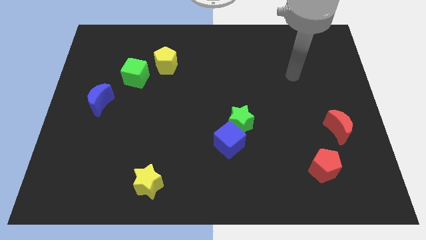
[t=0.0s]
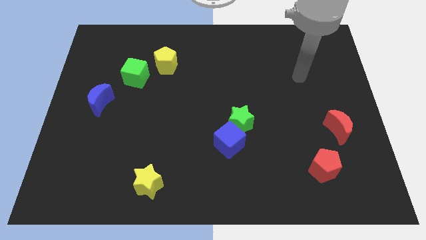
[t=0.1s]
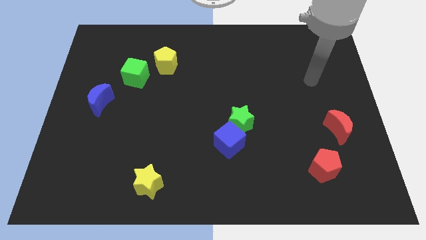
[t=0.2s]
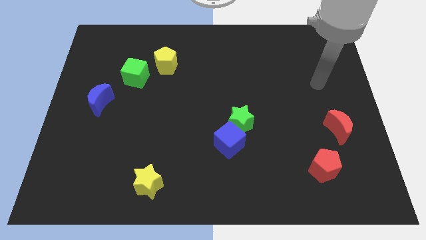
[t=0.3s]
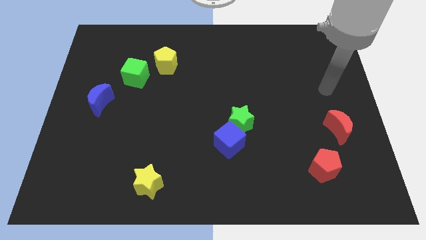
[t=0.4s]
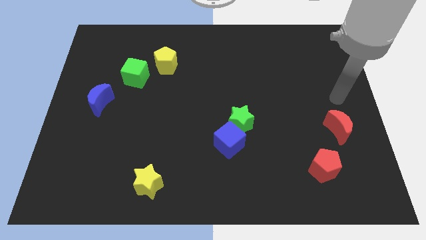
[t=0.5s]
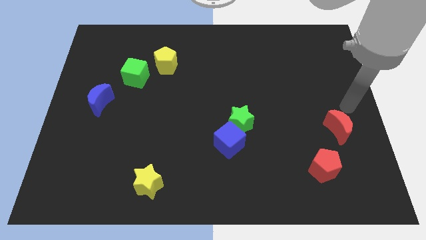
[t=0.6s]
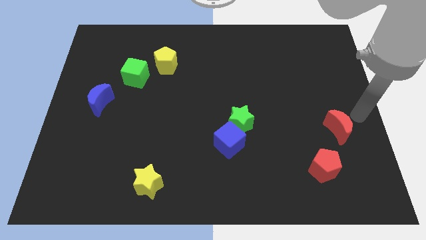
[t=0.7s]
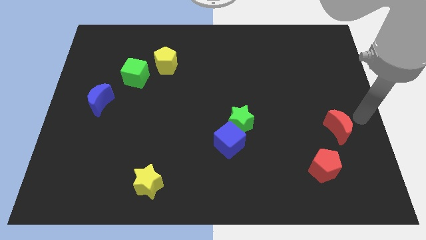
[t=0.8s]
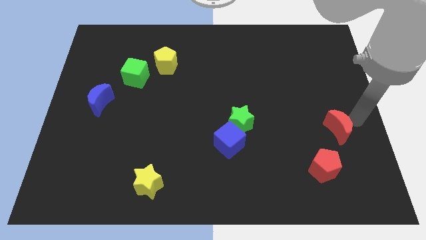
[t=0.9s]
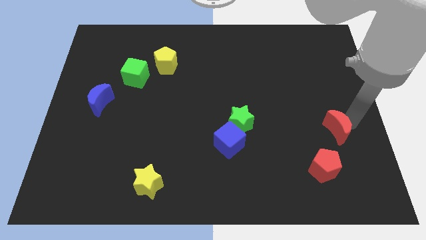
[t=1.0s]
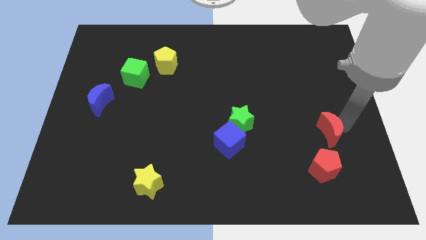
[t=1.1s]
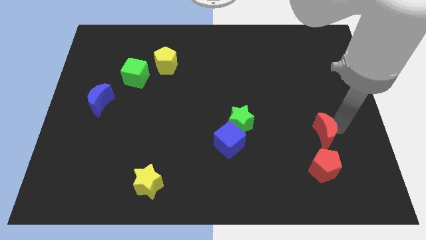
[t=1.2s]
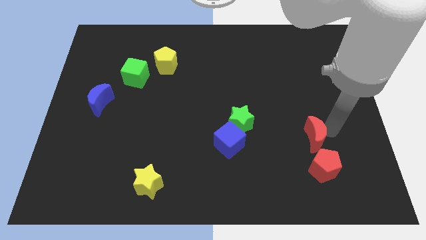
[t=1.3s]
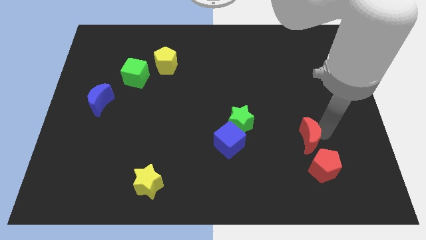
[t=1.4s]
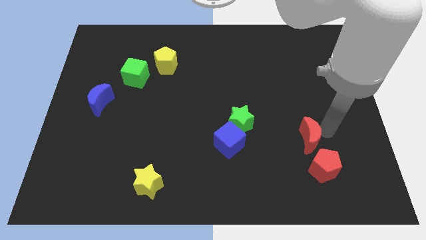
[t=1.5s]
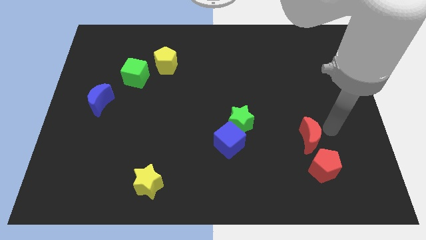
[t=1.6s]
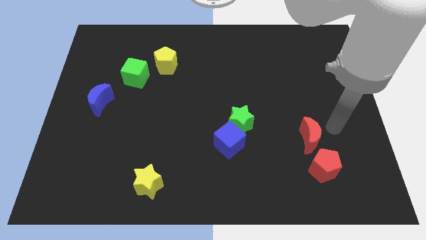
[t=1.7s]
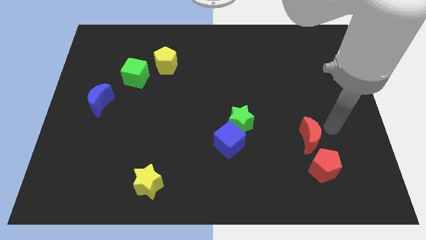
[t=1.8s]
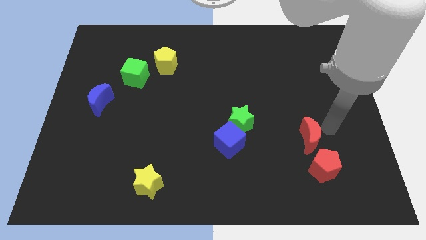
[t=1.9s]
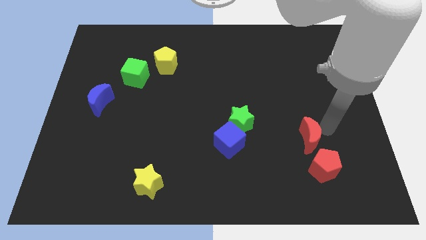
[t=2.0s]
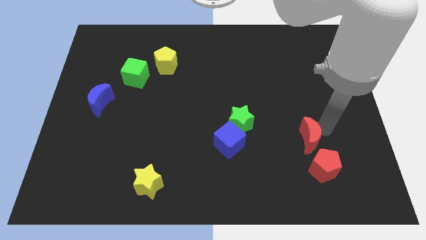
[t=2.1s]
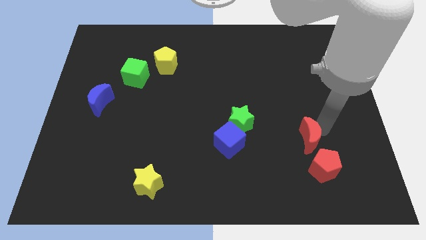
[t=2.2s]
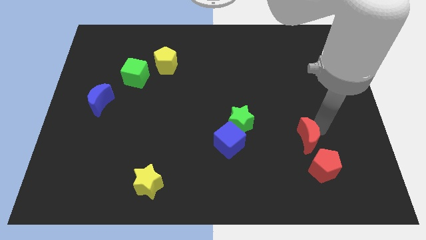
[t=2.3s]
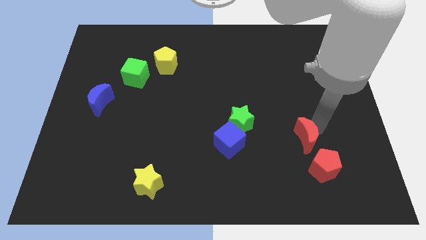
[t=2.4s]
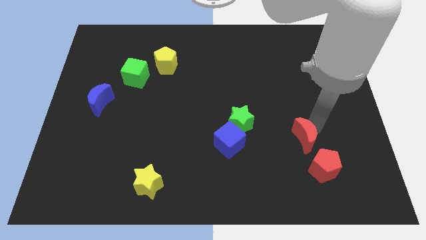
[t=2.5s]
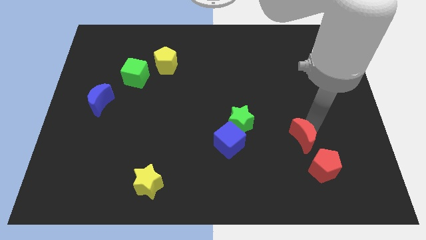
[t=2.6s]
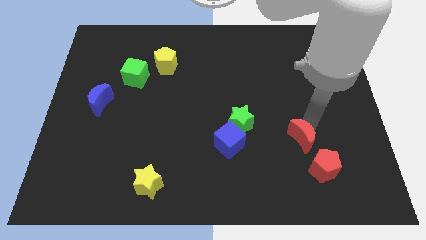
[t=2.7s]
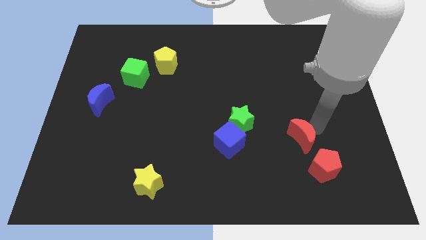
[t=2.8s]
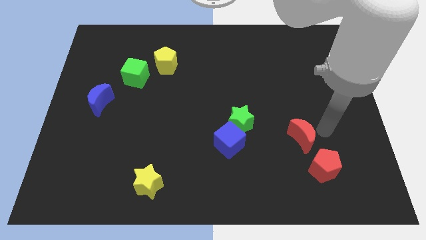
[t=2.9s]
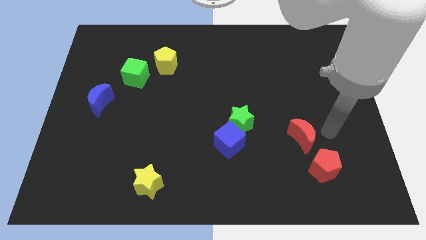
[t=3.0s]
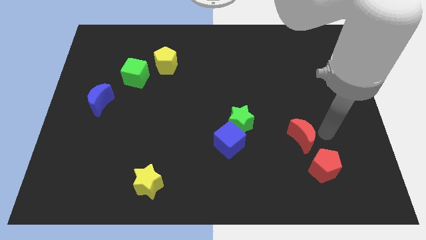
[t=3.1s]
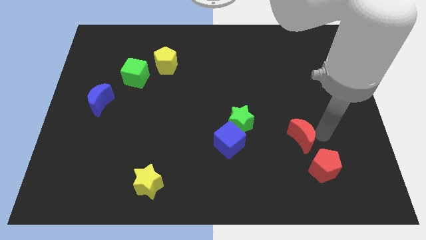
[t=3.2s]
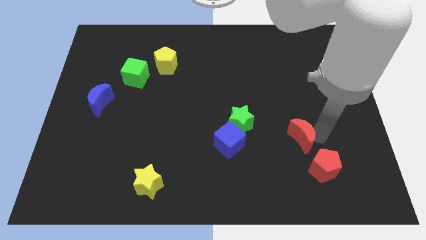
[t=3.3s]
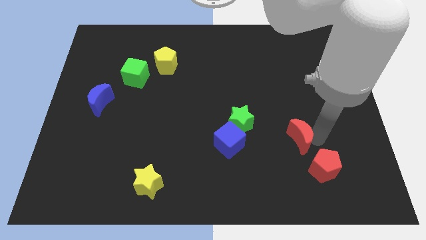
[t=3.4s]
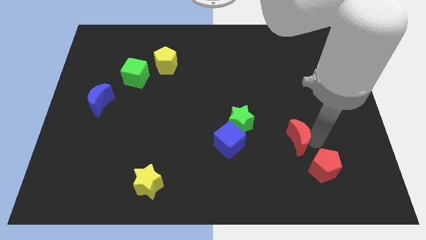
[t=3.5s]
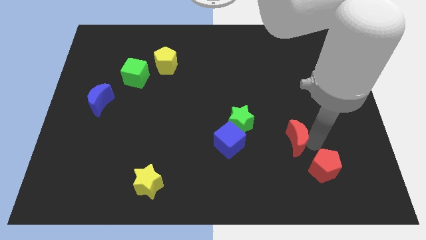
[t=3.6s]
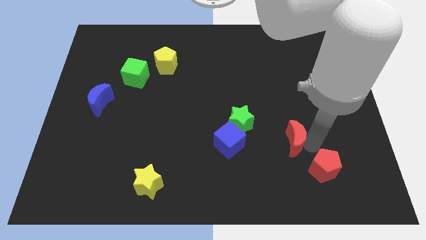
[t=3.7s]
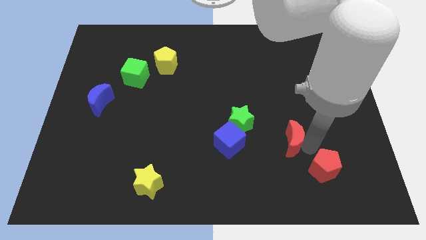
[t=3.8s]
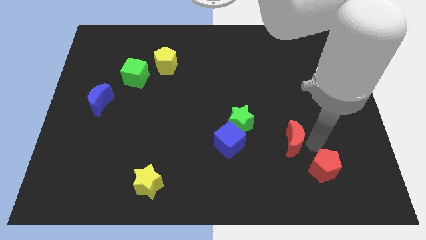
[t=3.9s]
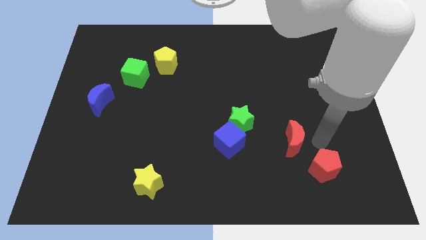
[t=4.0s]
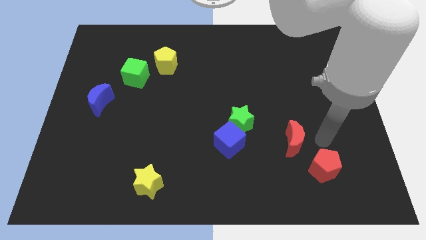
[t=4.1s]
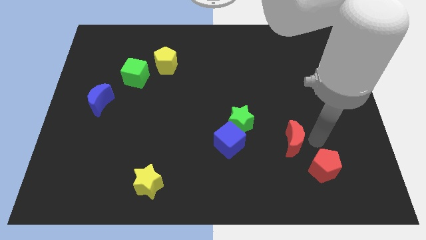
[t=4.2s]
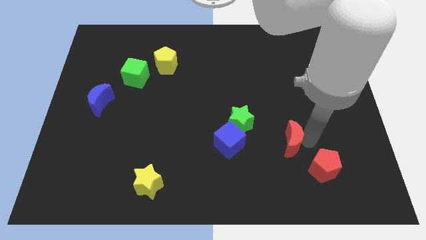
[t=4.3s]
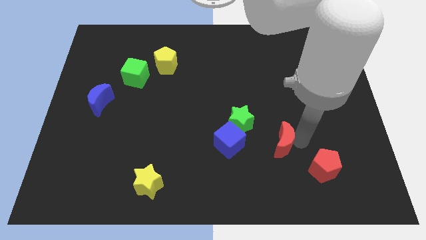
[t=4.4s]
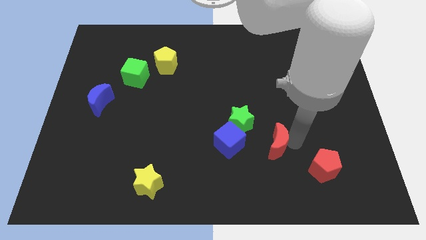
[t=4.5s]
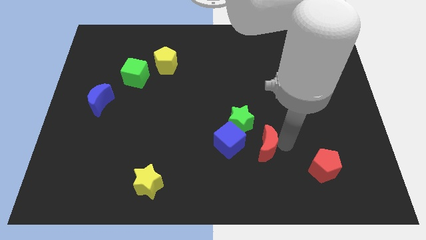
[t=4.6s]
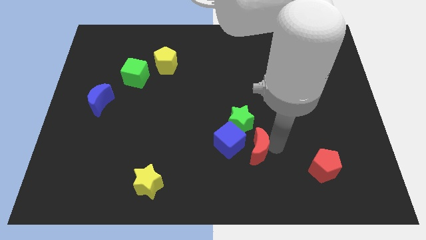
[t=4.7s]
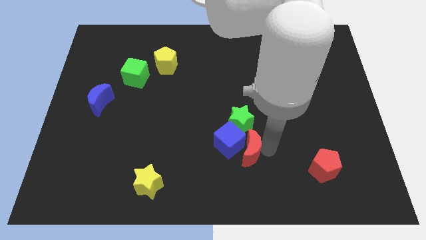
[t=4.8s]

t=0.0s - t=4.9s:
put the red moon to the blue cube

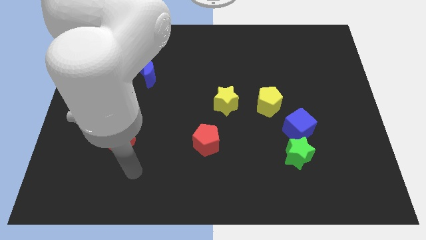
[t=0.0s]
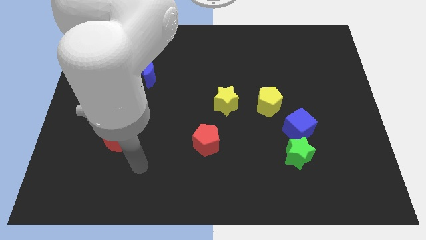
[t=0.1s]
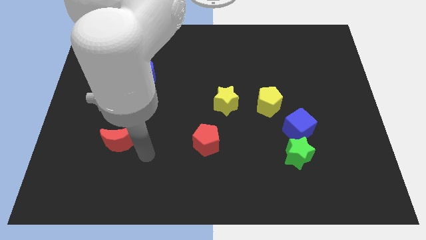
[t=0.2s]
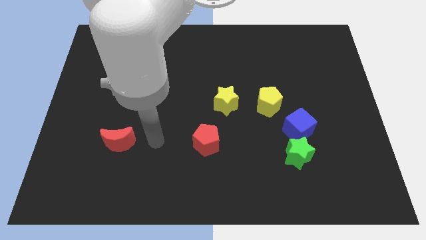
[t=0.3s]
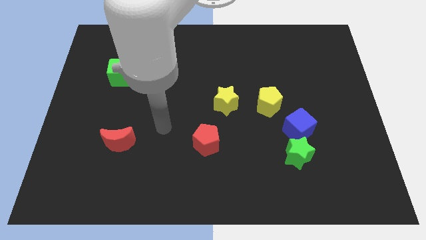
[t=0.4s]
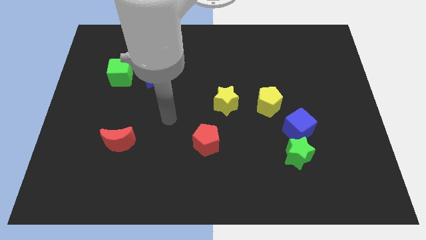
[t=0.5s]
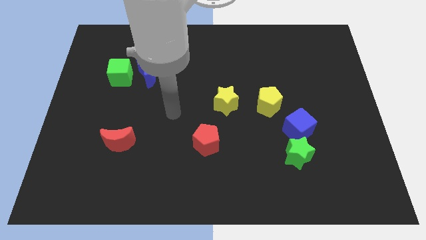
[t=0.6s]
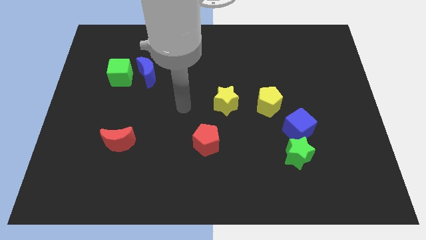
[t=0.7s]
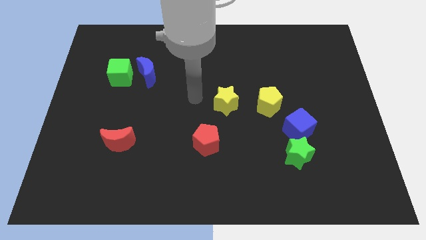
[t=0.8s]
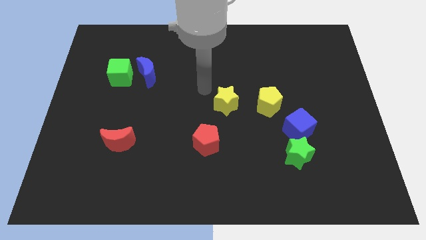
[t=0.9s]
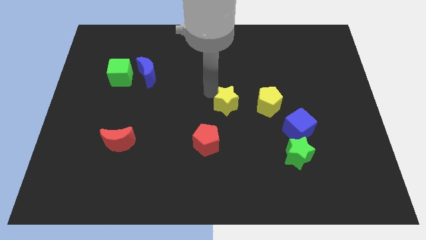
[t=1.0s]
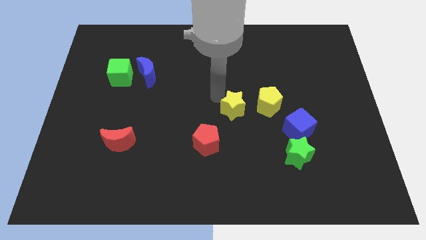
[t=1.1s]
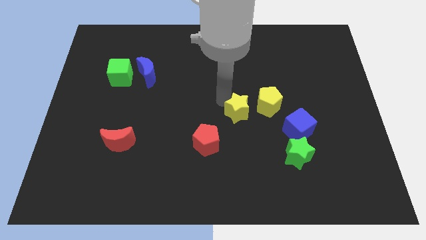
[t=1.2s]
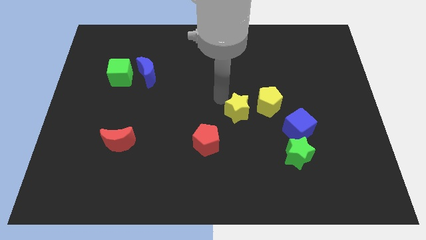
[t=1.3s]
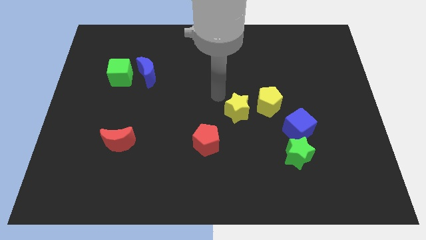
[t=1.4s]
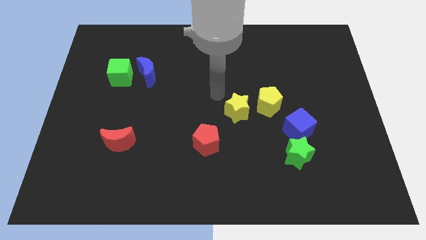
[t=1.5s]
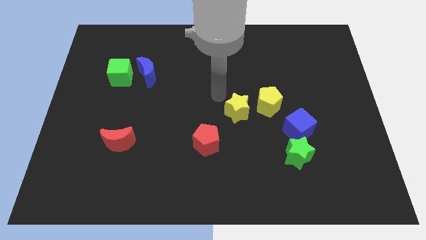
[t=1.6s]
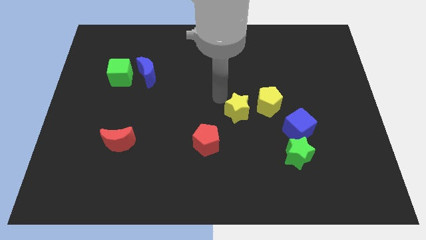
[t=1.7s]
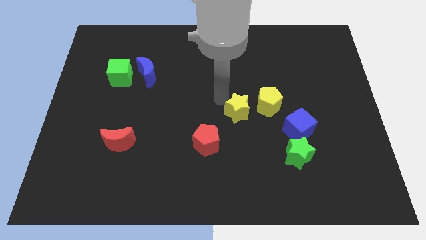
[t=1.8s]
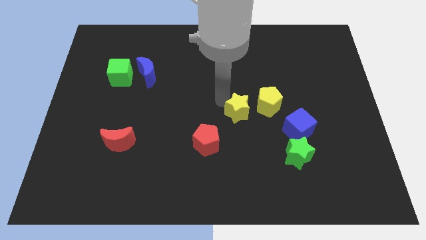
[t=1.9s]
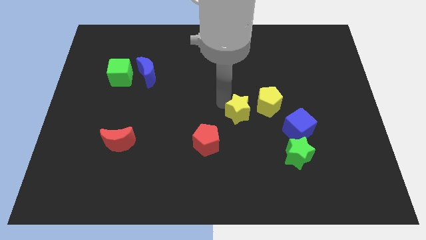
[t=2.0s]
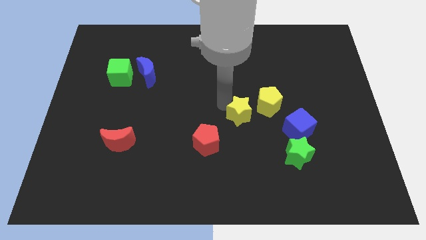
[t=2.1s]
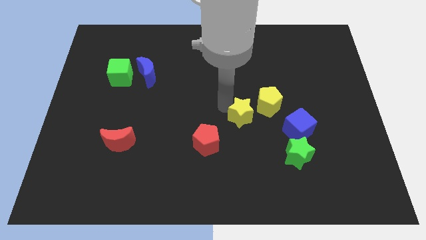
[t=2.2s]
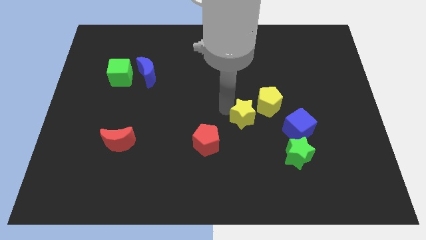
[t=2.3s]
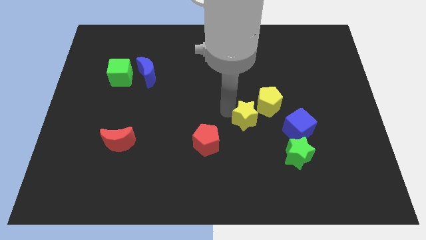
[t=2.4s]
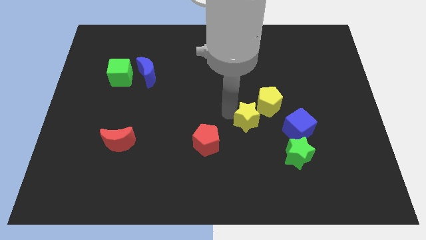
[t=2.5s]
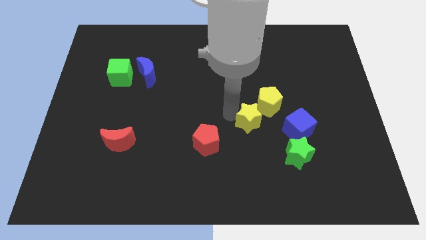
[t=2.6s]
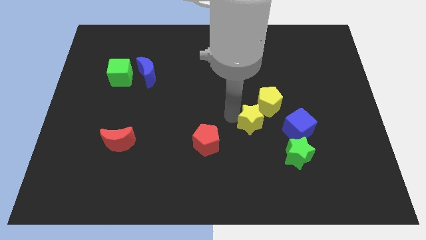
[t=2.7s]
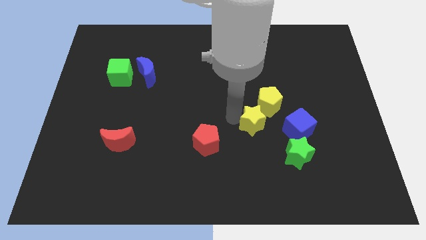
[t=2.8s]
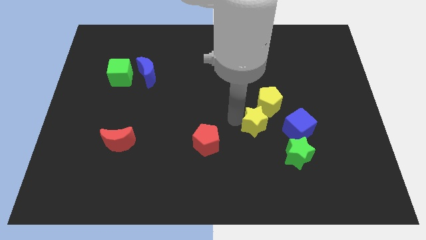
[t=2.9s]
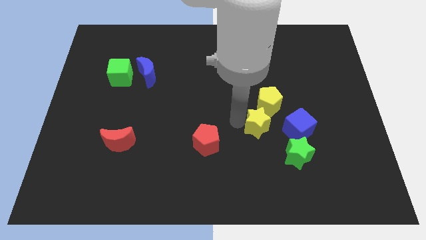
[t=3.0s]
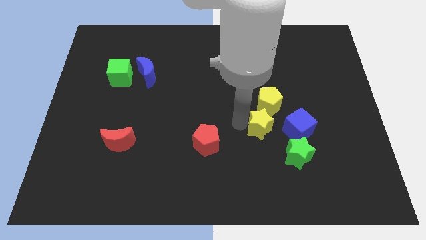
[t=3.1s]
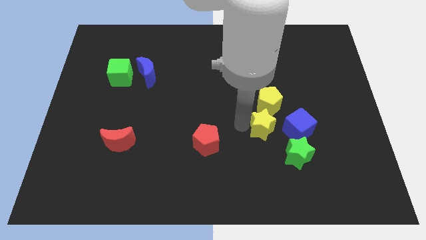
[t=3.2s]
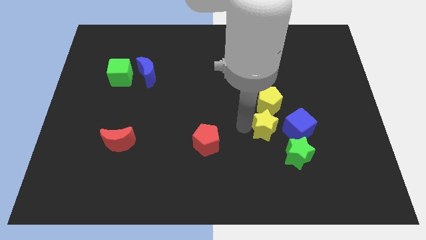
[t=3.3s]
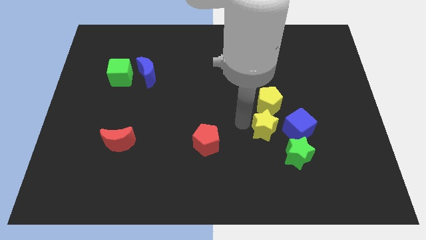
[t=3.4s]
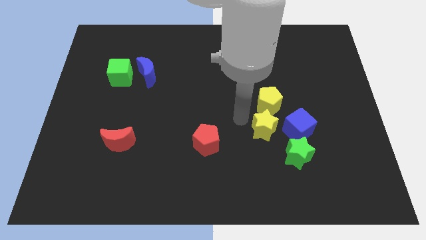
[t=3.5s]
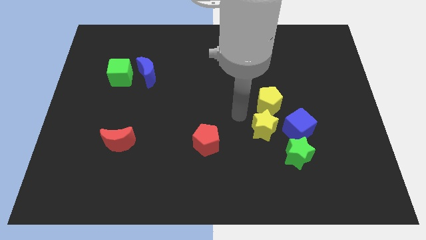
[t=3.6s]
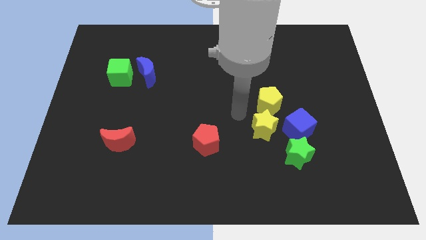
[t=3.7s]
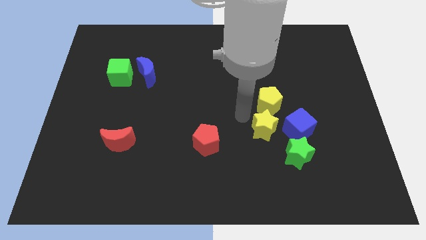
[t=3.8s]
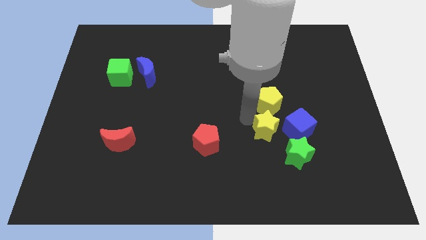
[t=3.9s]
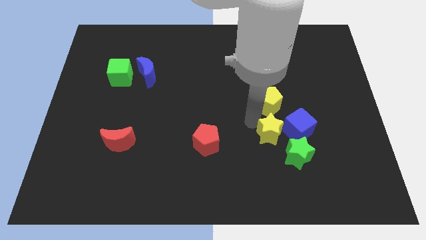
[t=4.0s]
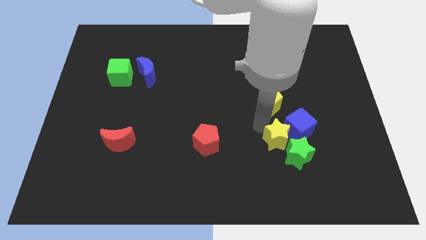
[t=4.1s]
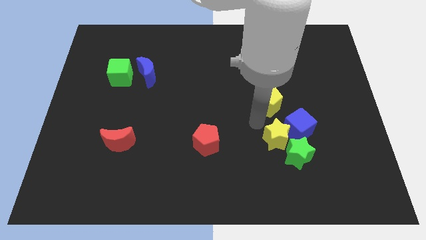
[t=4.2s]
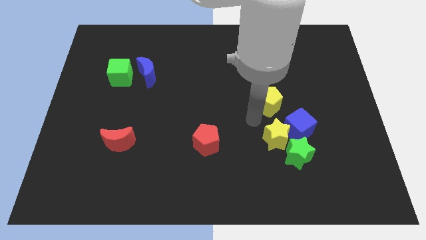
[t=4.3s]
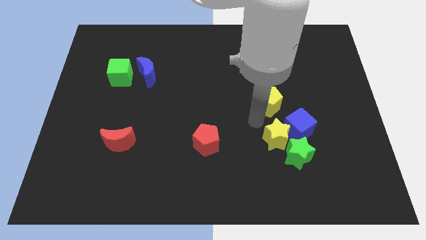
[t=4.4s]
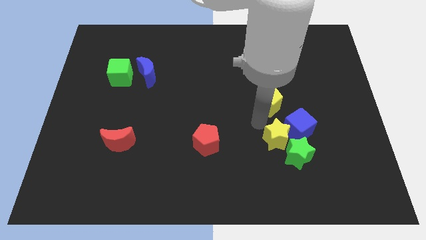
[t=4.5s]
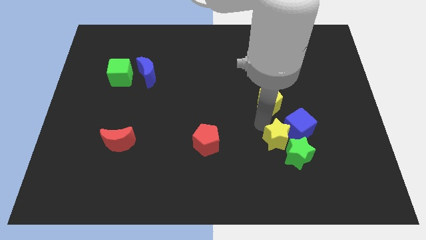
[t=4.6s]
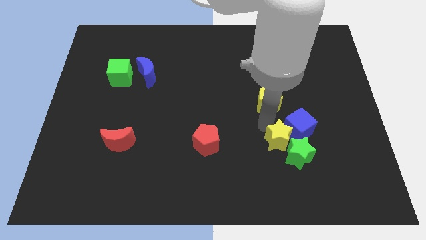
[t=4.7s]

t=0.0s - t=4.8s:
put the yellow star towards the green star
